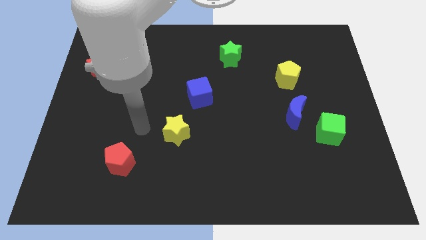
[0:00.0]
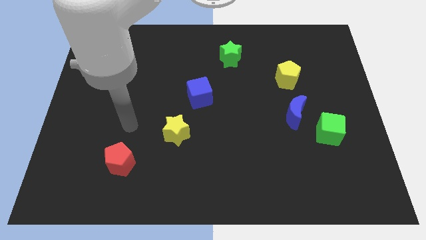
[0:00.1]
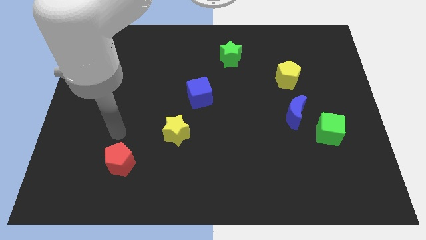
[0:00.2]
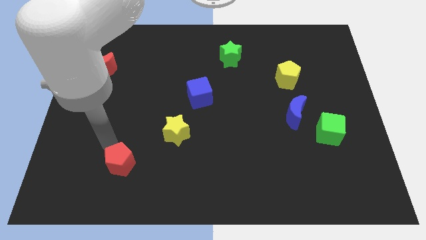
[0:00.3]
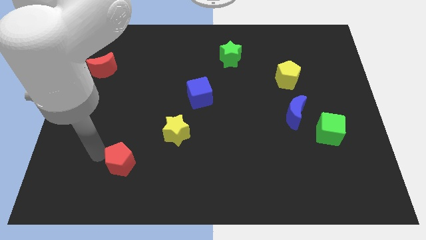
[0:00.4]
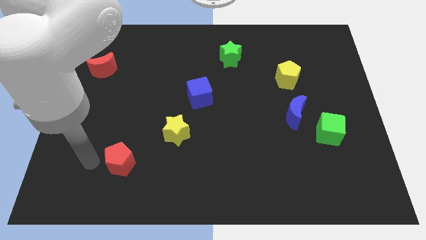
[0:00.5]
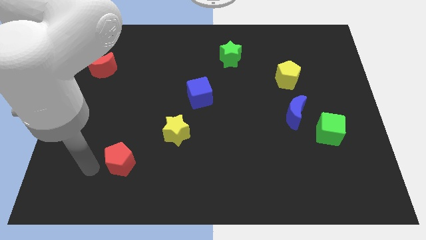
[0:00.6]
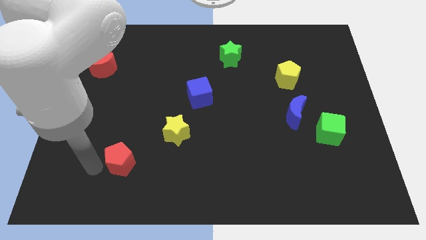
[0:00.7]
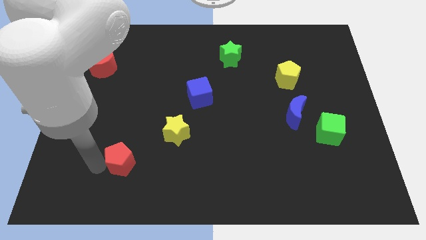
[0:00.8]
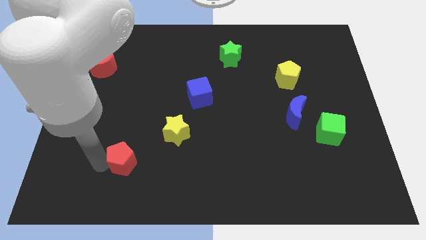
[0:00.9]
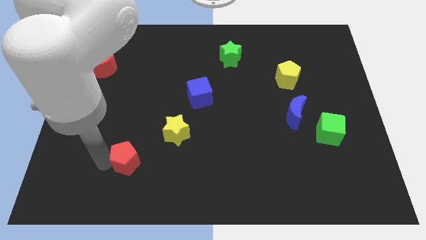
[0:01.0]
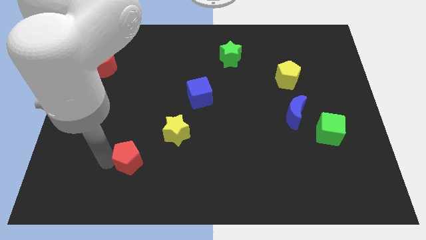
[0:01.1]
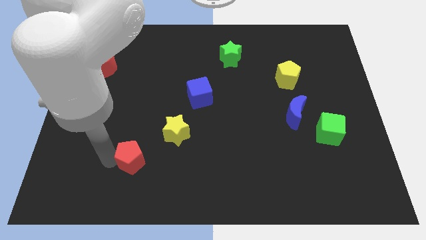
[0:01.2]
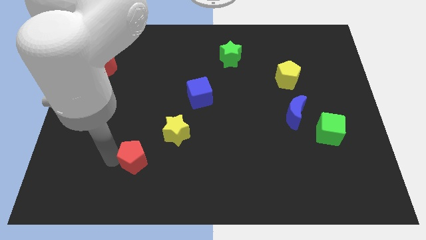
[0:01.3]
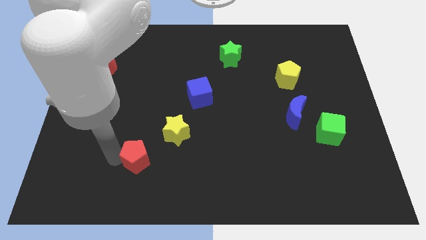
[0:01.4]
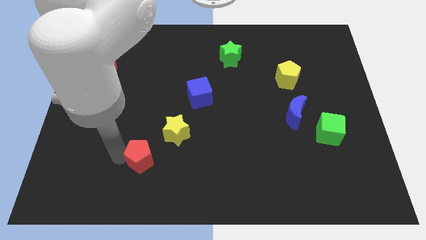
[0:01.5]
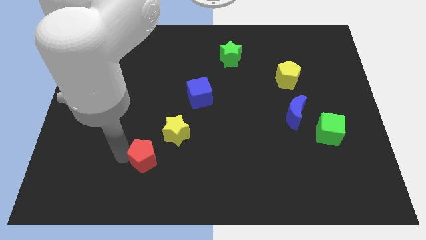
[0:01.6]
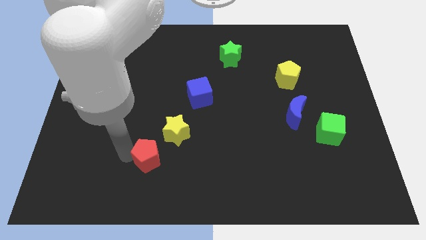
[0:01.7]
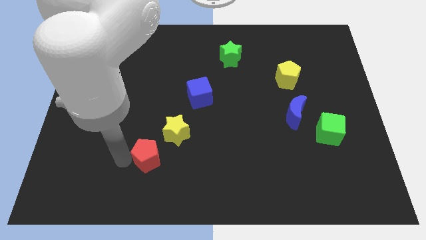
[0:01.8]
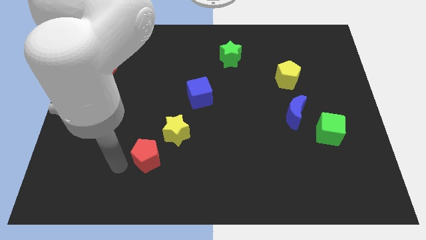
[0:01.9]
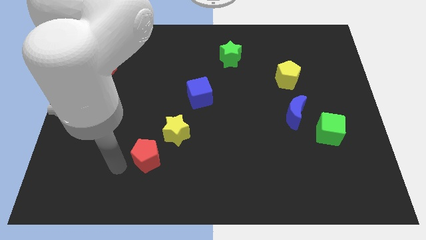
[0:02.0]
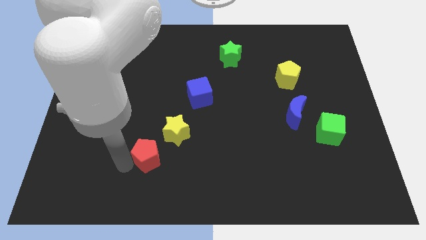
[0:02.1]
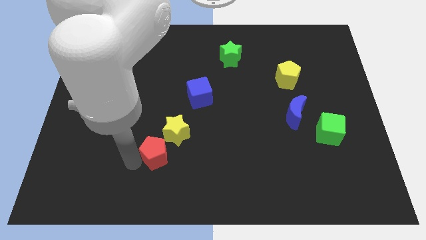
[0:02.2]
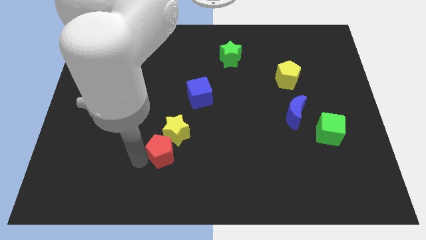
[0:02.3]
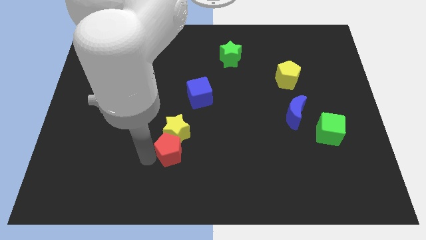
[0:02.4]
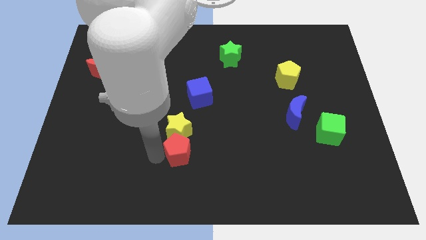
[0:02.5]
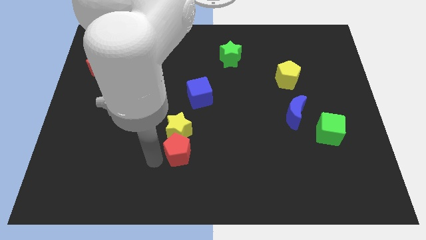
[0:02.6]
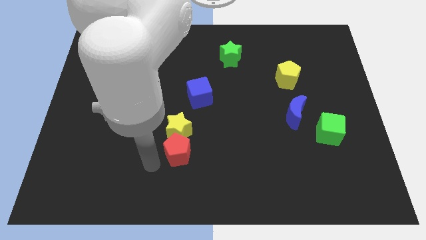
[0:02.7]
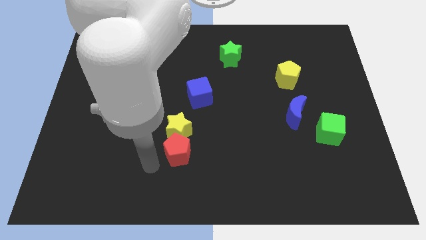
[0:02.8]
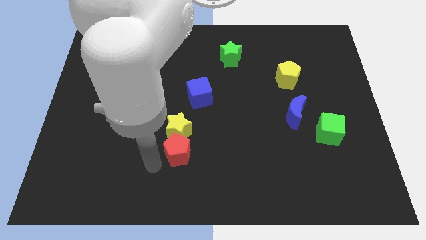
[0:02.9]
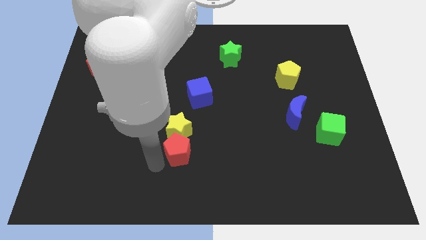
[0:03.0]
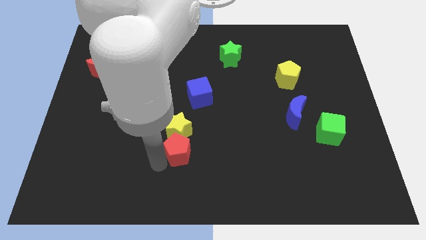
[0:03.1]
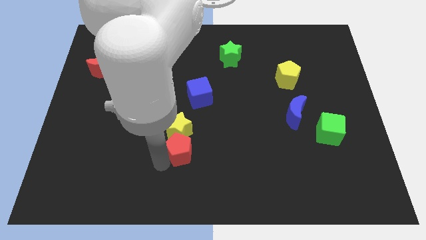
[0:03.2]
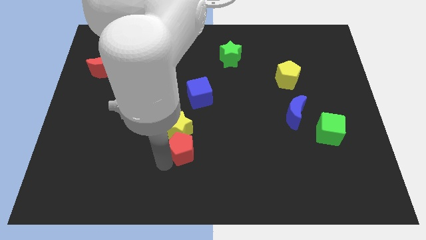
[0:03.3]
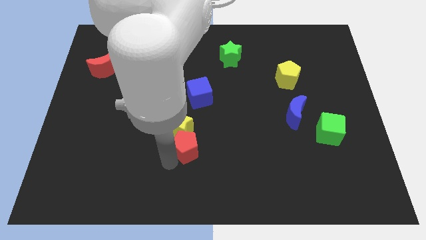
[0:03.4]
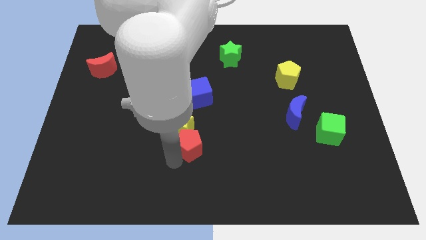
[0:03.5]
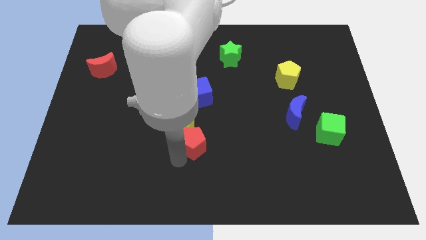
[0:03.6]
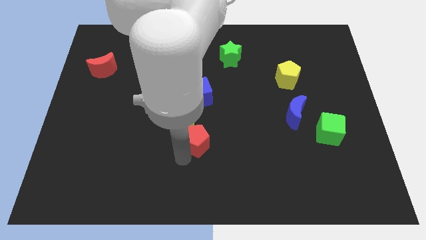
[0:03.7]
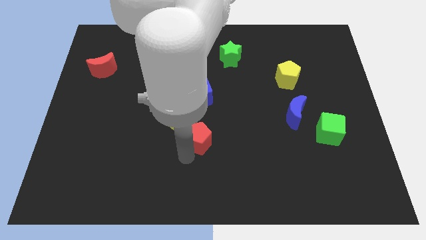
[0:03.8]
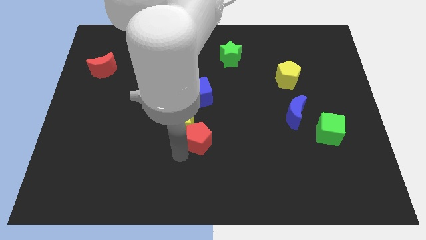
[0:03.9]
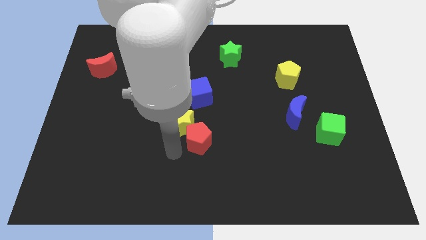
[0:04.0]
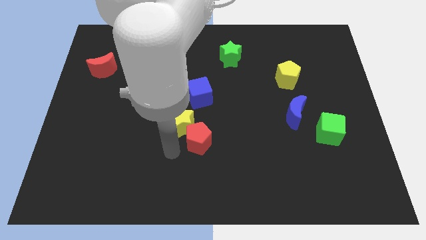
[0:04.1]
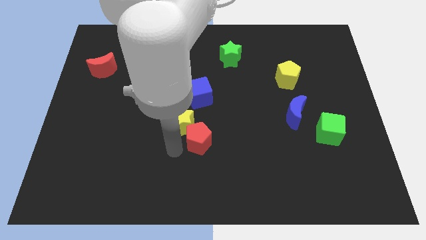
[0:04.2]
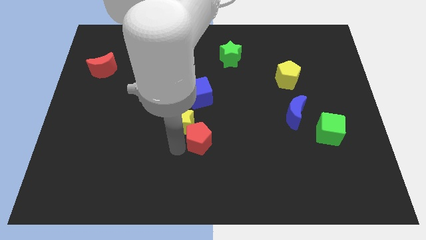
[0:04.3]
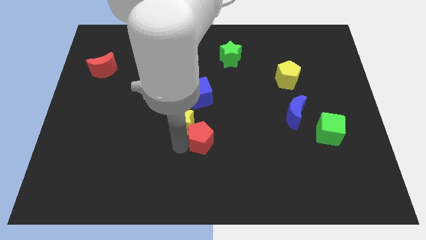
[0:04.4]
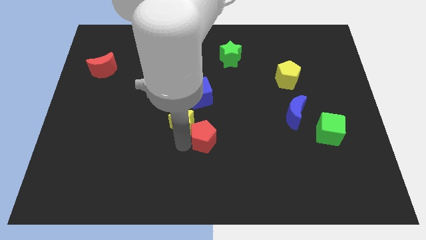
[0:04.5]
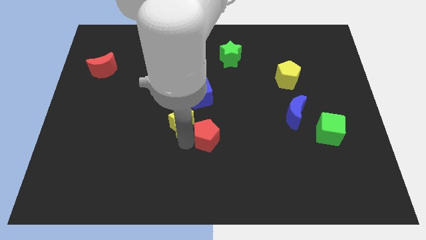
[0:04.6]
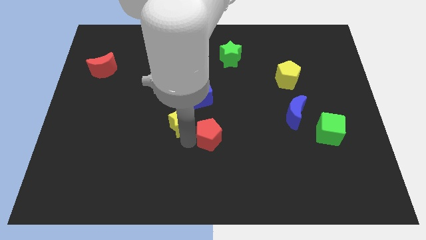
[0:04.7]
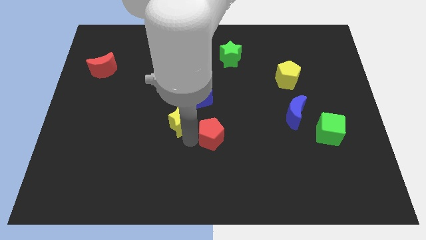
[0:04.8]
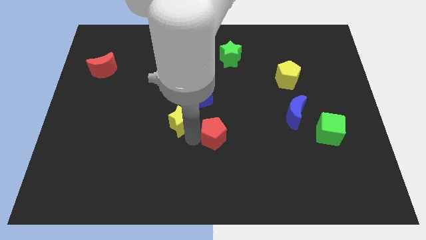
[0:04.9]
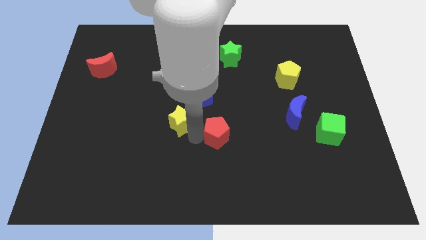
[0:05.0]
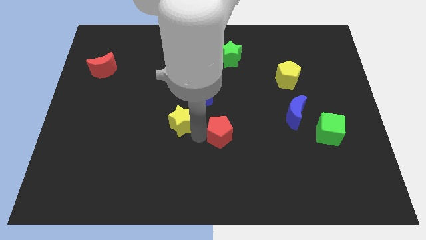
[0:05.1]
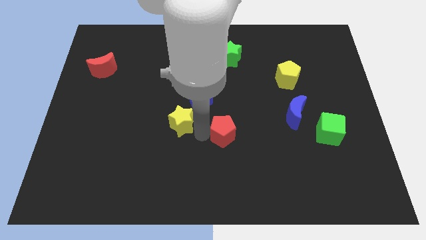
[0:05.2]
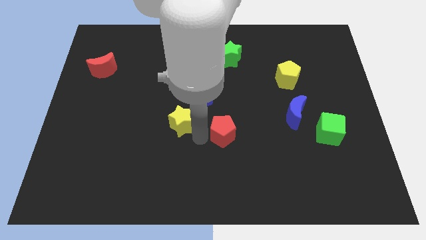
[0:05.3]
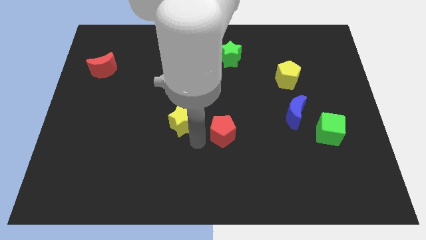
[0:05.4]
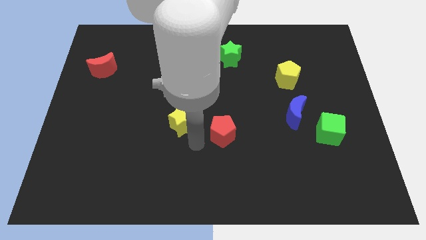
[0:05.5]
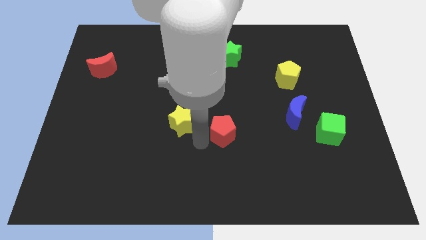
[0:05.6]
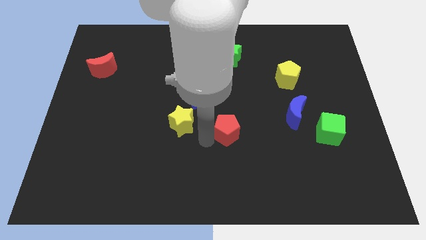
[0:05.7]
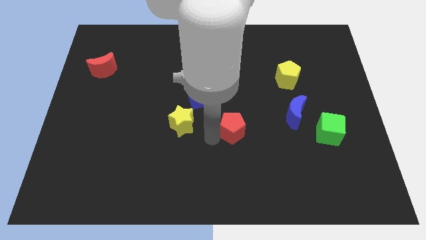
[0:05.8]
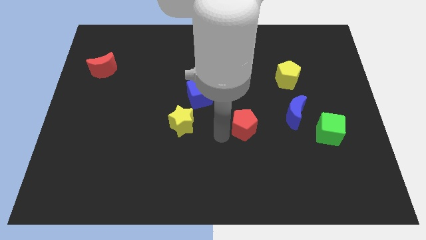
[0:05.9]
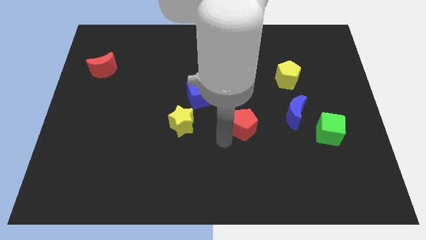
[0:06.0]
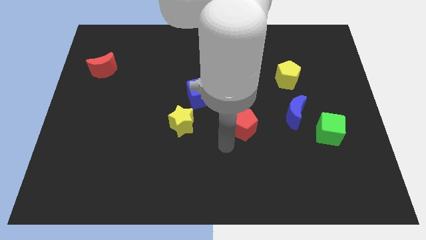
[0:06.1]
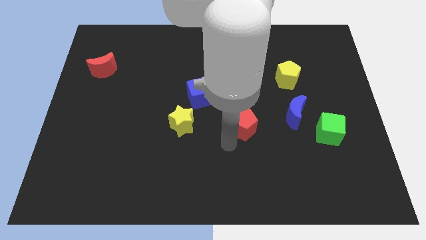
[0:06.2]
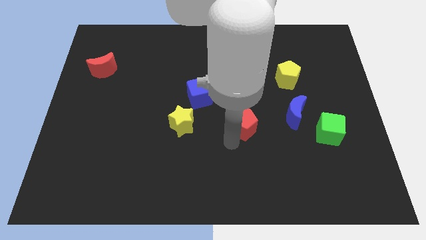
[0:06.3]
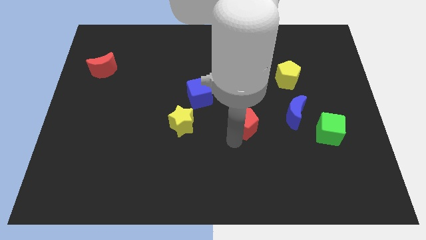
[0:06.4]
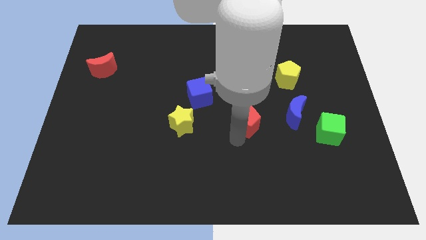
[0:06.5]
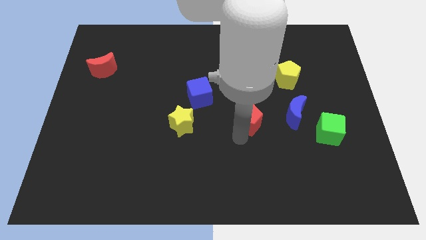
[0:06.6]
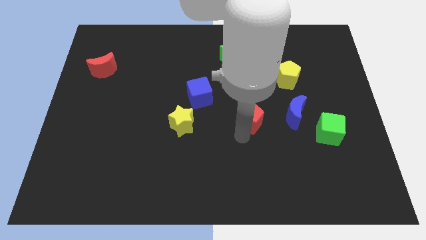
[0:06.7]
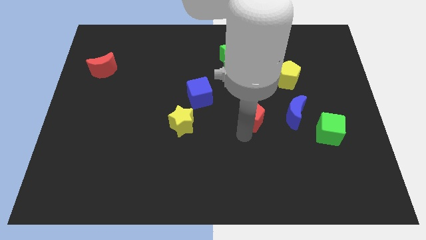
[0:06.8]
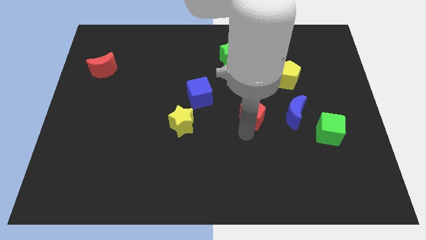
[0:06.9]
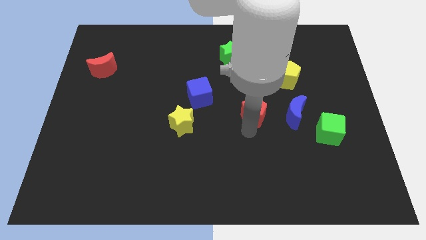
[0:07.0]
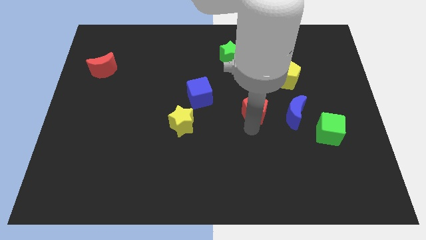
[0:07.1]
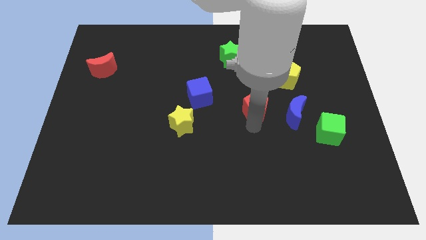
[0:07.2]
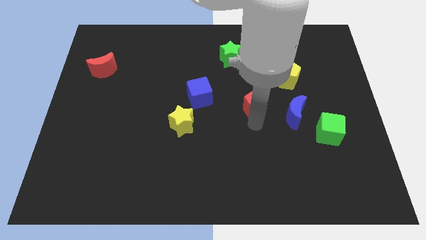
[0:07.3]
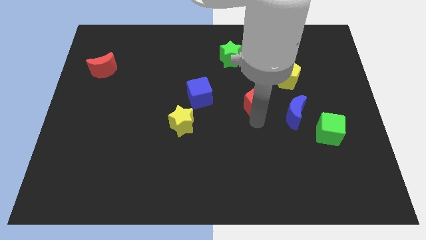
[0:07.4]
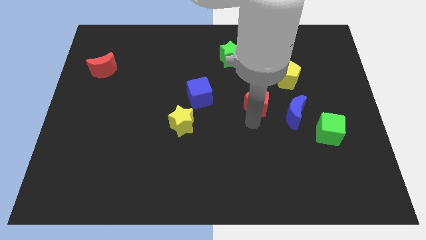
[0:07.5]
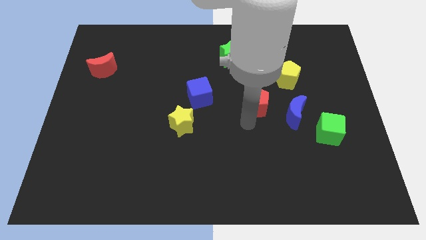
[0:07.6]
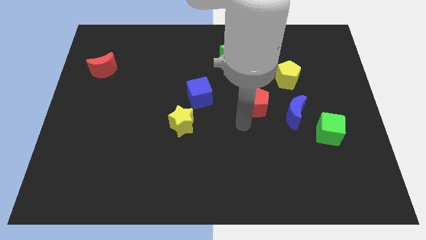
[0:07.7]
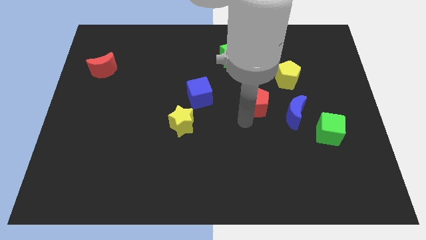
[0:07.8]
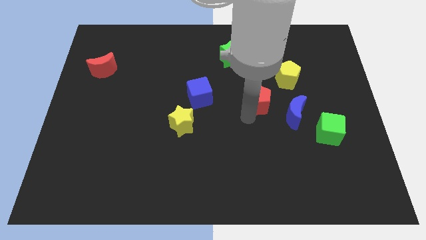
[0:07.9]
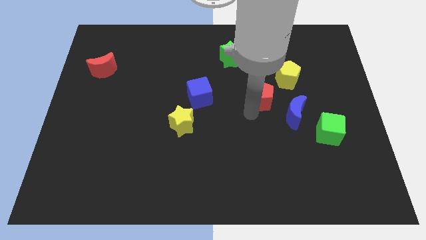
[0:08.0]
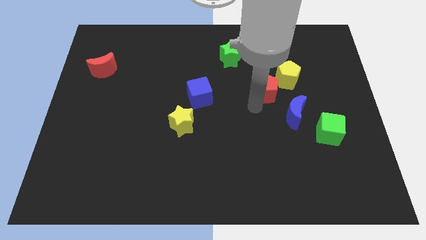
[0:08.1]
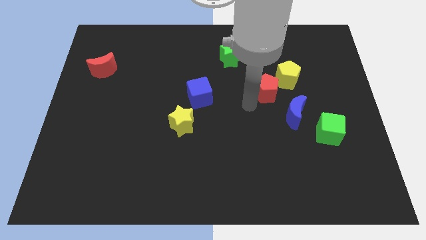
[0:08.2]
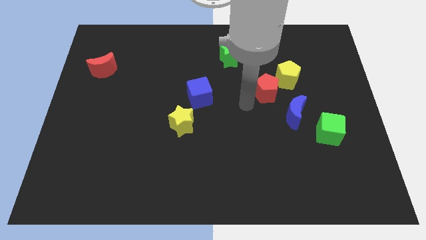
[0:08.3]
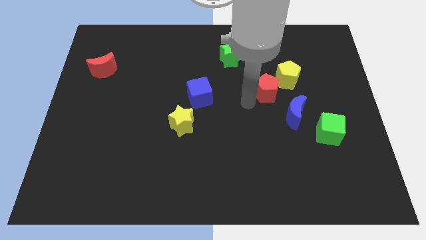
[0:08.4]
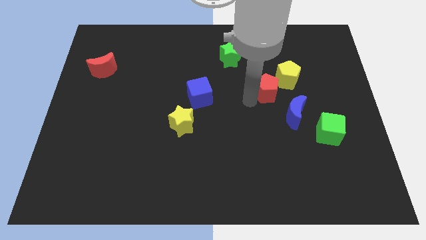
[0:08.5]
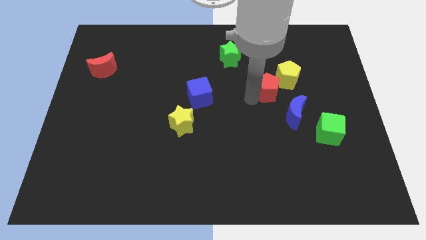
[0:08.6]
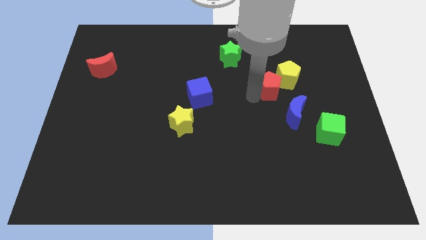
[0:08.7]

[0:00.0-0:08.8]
move the red pentagon towards the yellow pentagon
